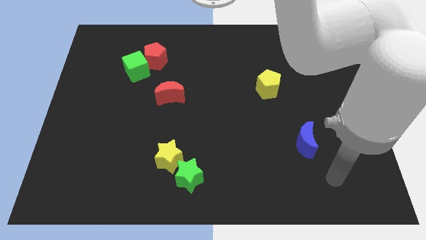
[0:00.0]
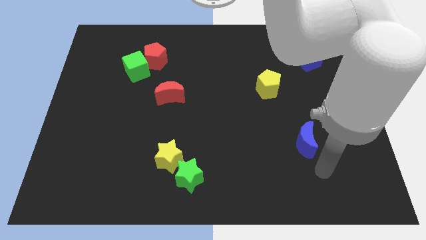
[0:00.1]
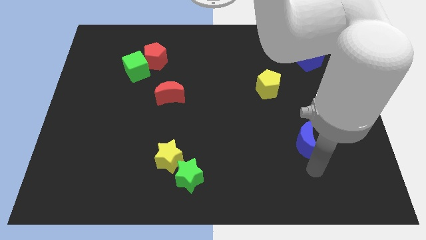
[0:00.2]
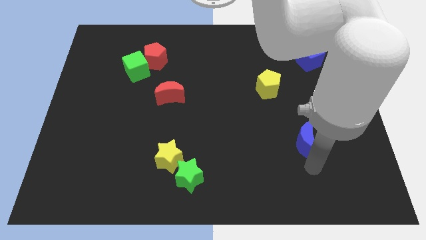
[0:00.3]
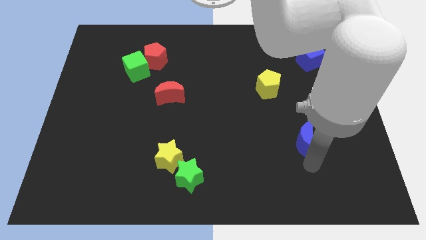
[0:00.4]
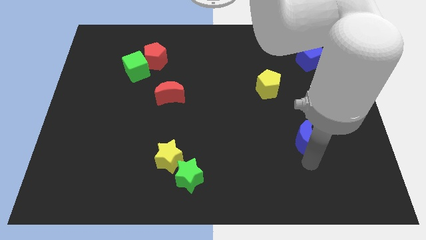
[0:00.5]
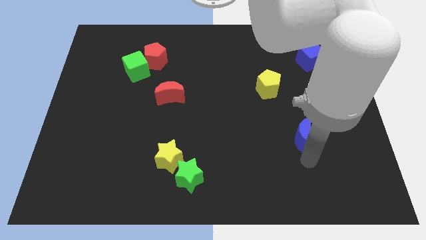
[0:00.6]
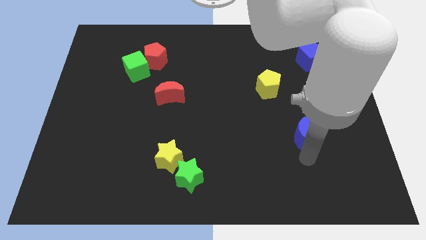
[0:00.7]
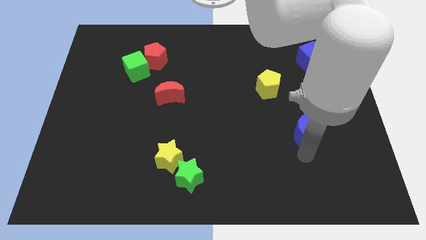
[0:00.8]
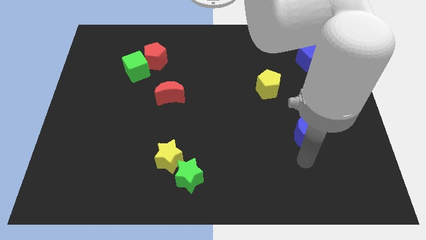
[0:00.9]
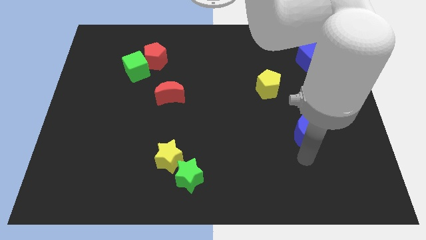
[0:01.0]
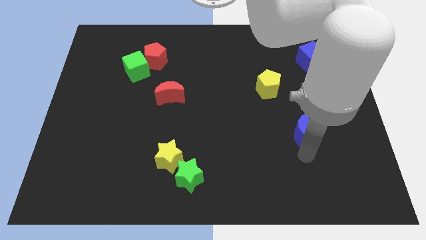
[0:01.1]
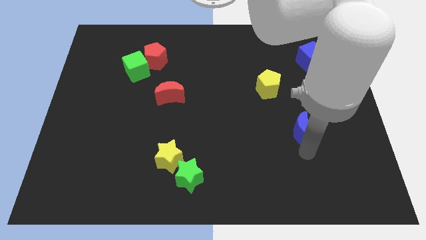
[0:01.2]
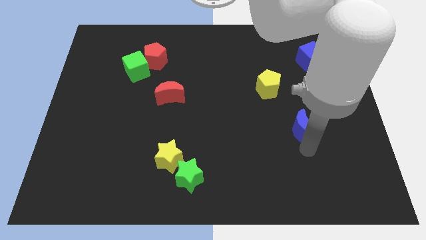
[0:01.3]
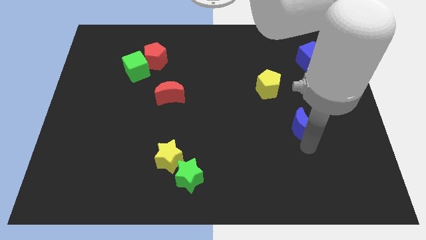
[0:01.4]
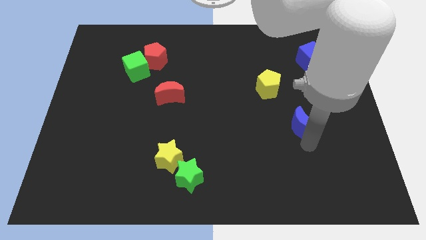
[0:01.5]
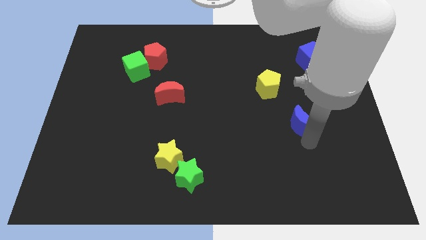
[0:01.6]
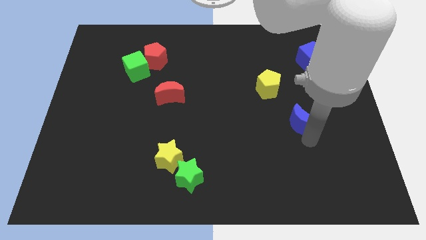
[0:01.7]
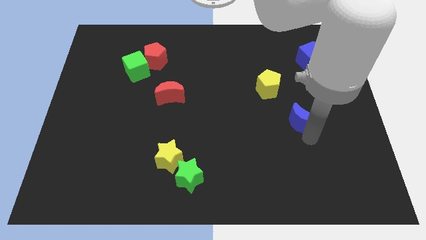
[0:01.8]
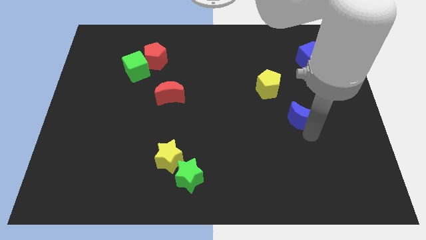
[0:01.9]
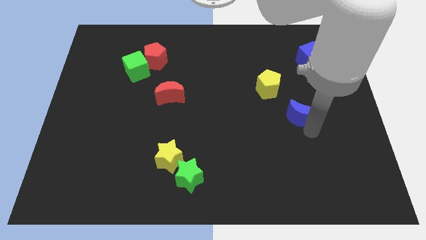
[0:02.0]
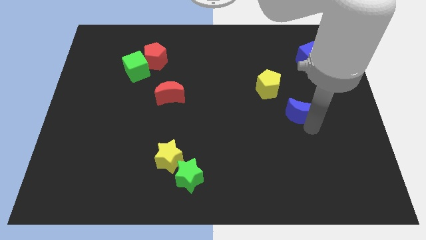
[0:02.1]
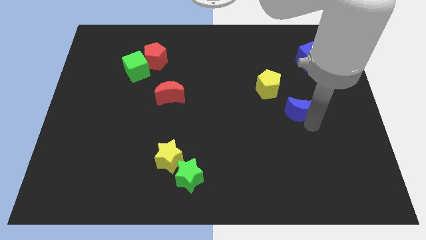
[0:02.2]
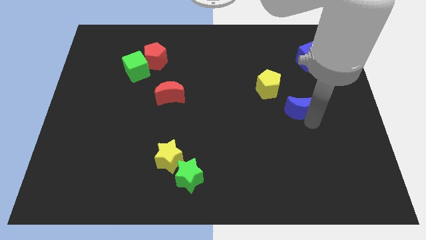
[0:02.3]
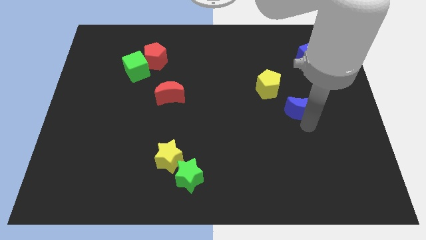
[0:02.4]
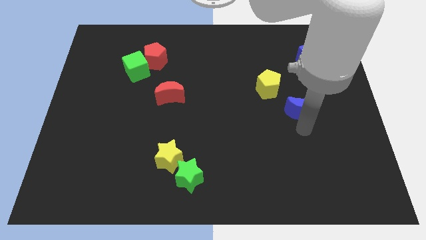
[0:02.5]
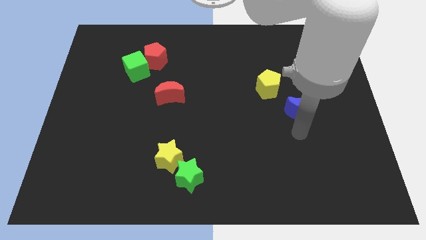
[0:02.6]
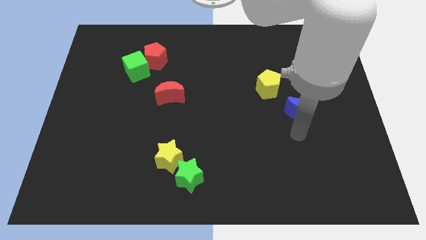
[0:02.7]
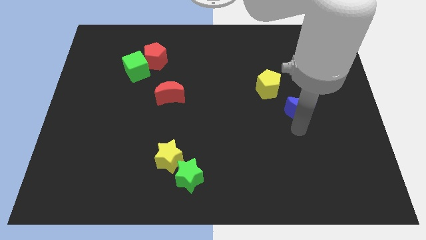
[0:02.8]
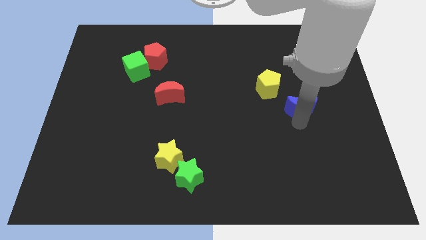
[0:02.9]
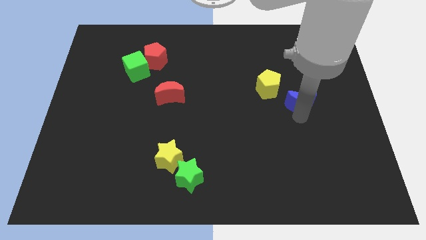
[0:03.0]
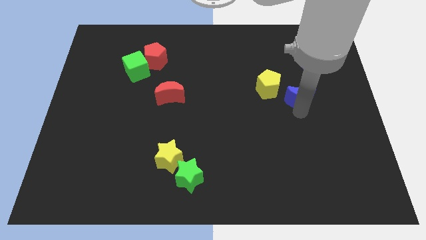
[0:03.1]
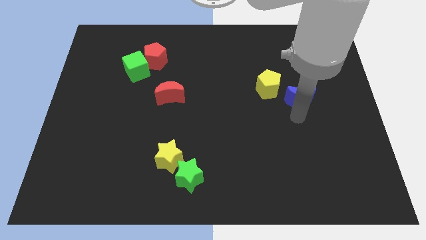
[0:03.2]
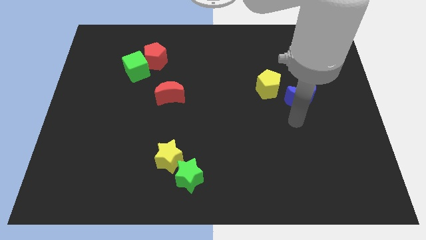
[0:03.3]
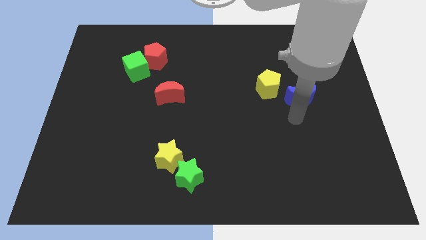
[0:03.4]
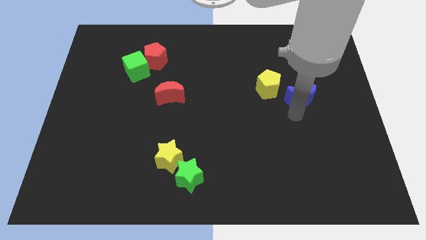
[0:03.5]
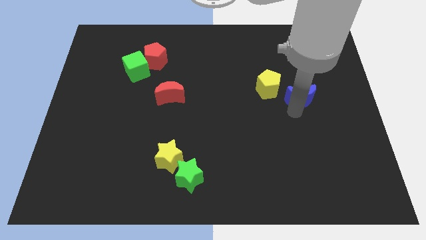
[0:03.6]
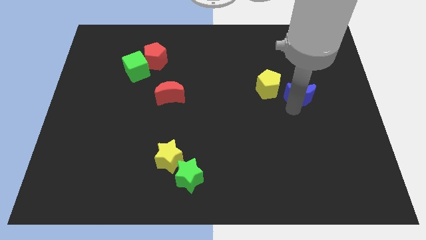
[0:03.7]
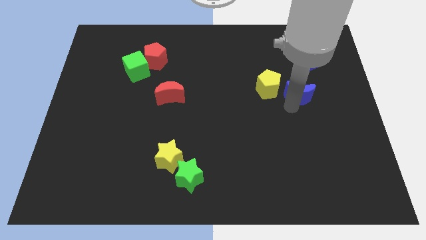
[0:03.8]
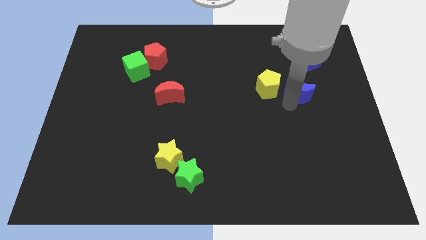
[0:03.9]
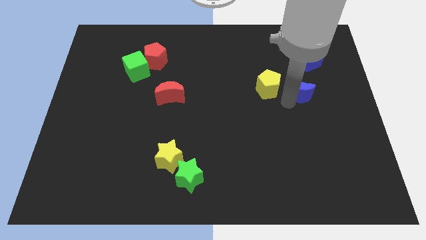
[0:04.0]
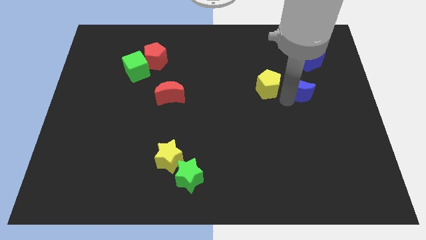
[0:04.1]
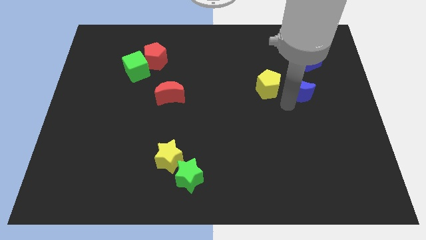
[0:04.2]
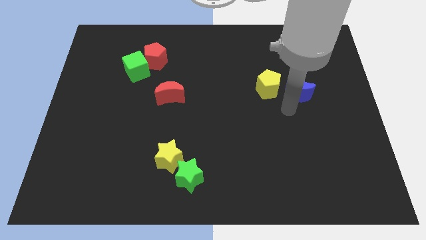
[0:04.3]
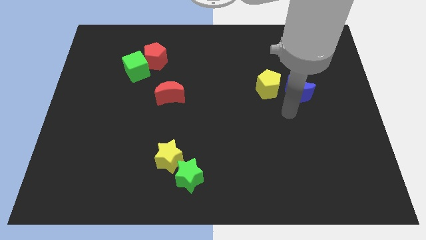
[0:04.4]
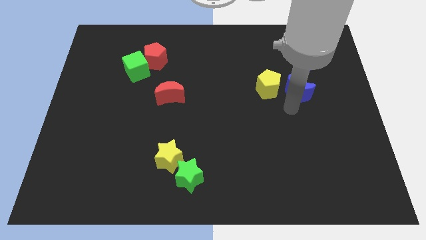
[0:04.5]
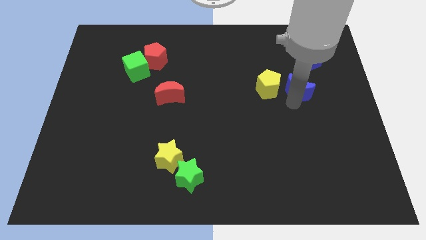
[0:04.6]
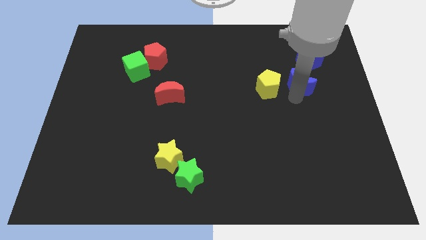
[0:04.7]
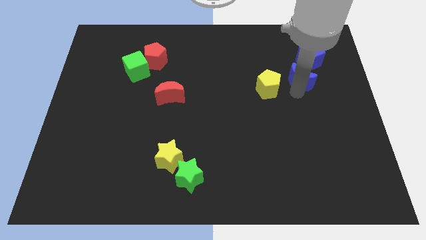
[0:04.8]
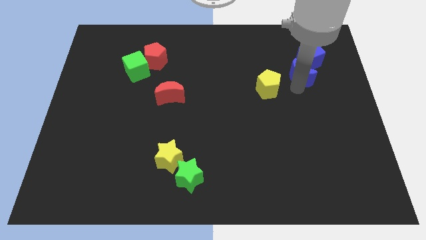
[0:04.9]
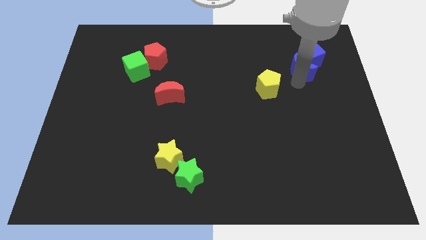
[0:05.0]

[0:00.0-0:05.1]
move the blue moon close to the blue cube

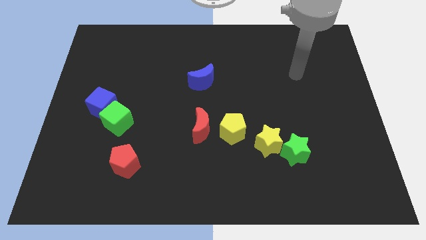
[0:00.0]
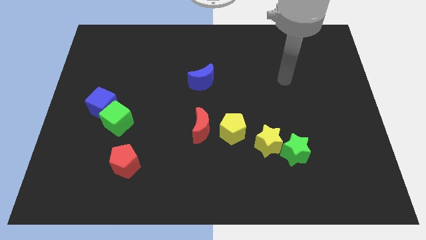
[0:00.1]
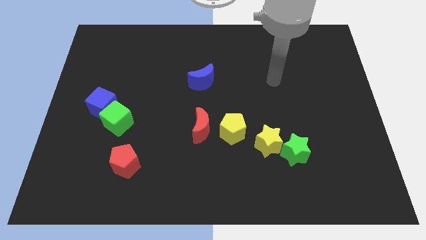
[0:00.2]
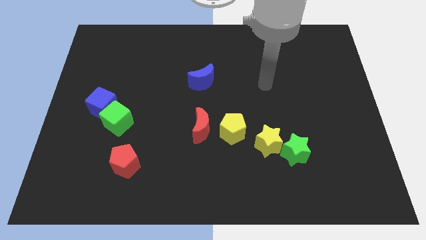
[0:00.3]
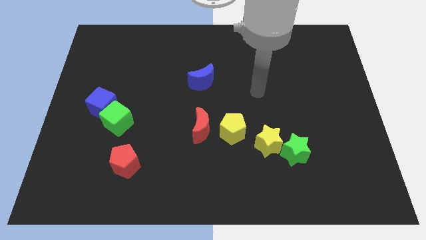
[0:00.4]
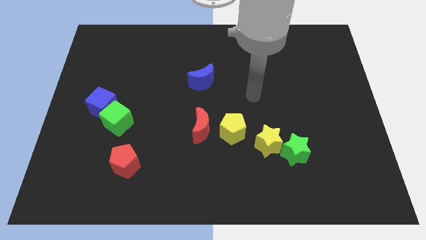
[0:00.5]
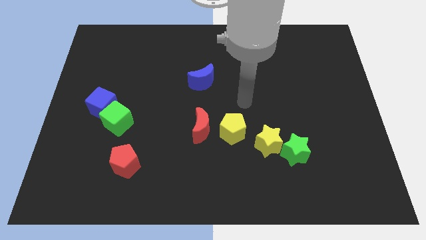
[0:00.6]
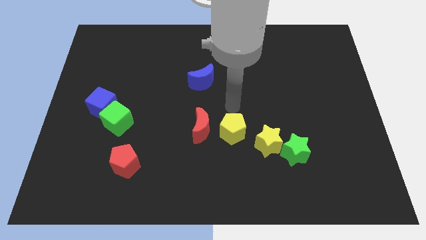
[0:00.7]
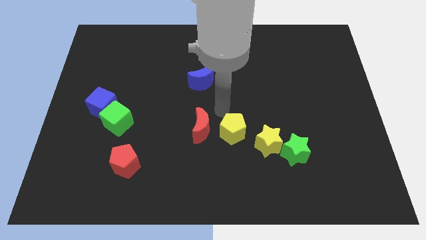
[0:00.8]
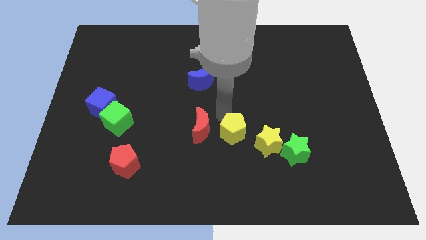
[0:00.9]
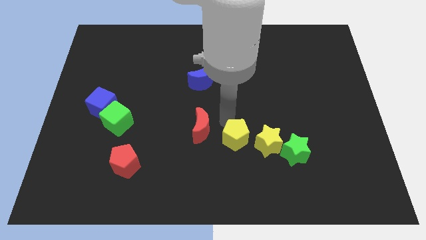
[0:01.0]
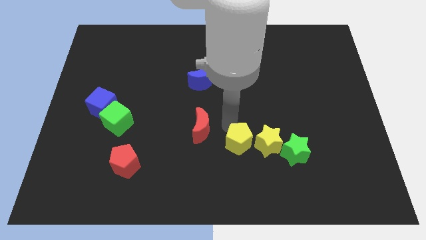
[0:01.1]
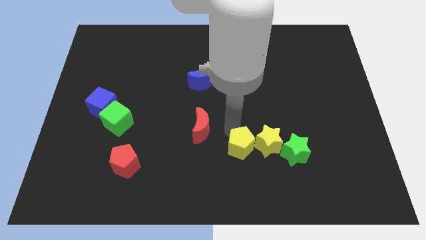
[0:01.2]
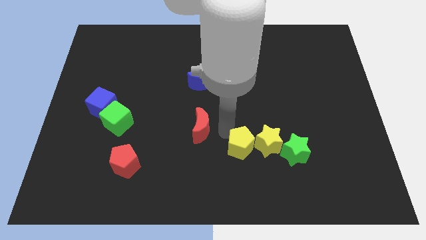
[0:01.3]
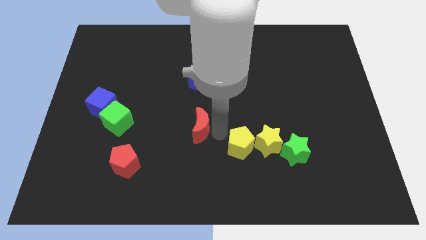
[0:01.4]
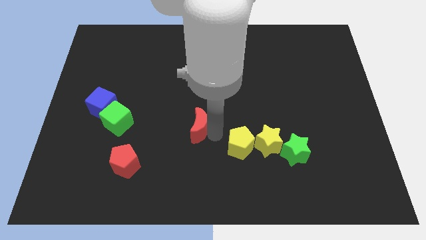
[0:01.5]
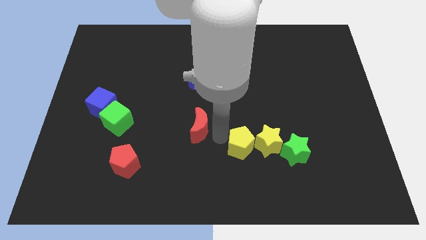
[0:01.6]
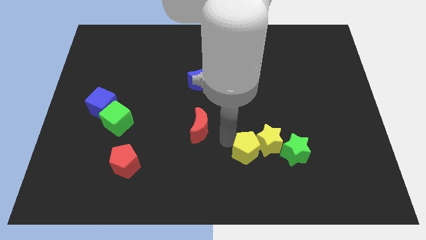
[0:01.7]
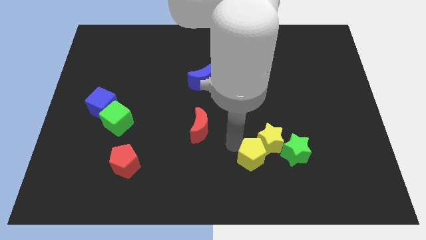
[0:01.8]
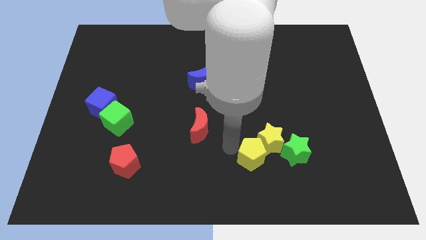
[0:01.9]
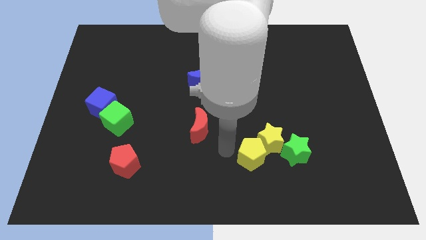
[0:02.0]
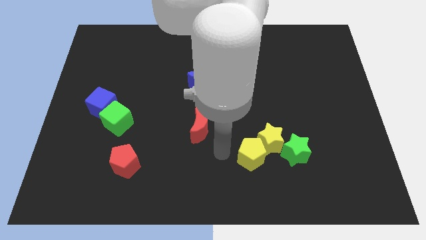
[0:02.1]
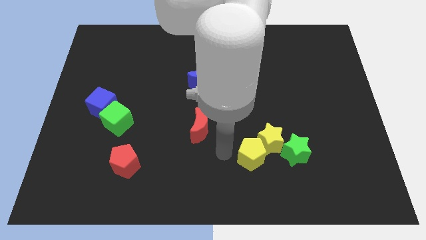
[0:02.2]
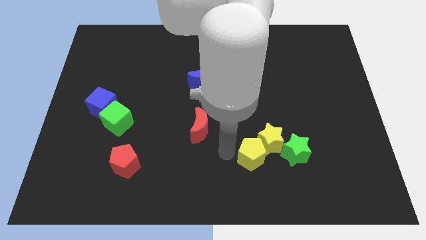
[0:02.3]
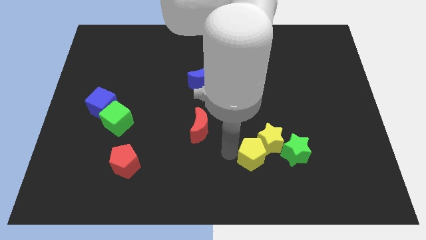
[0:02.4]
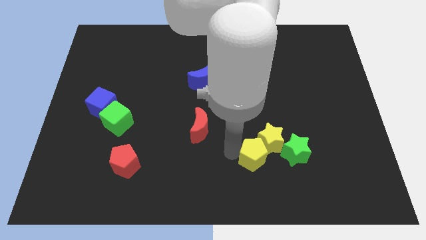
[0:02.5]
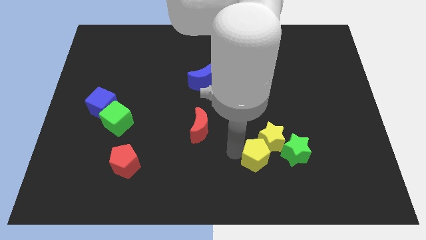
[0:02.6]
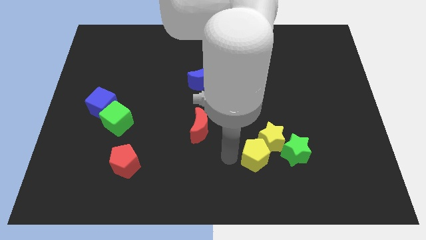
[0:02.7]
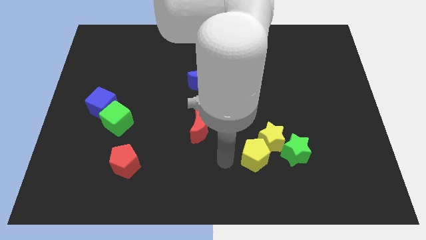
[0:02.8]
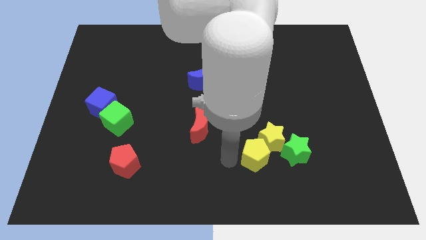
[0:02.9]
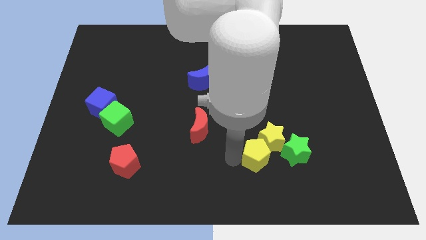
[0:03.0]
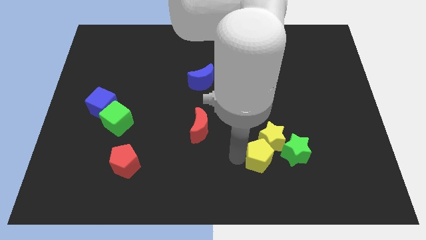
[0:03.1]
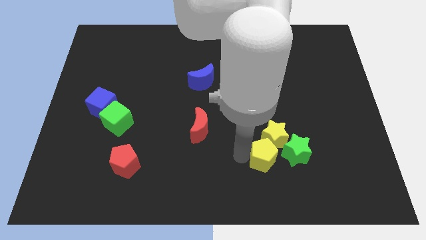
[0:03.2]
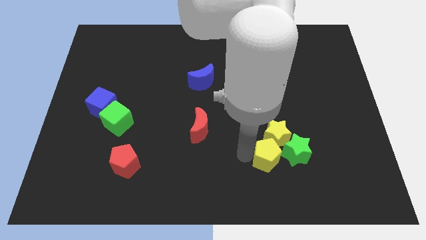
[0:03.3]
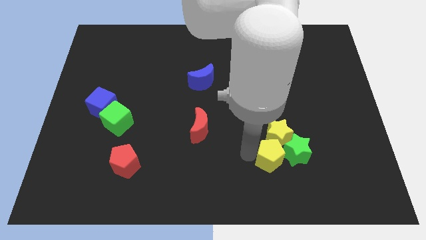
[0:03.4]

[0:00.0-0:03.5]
slide the yellow pentagon next to the green star
